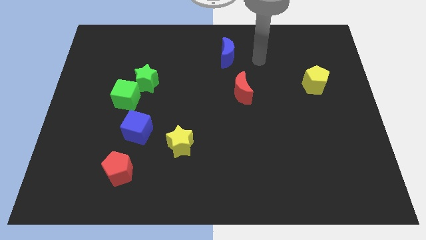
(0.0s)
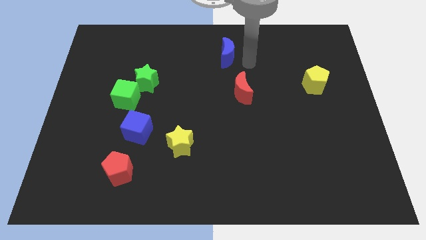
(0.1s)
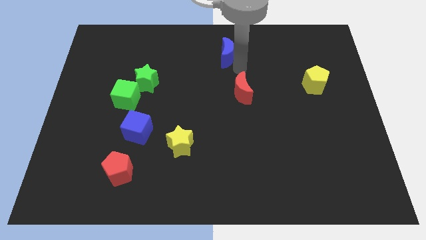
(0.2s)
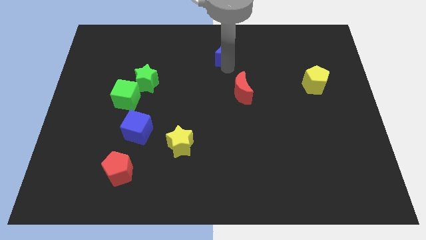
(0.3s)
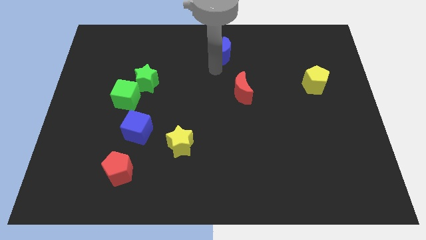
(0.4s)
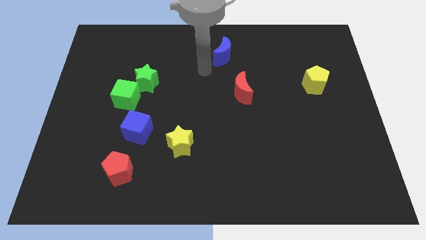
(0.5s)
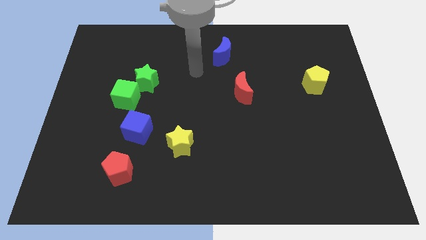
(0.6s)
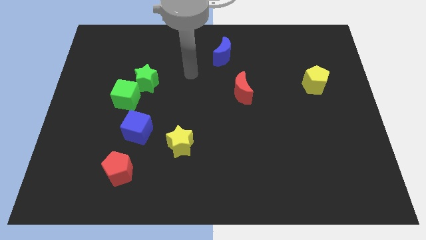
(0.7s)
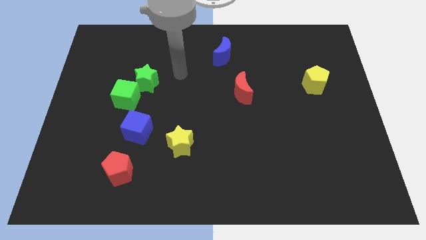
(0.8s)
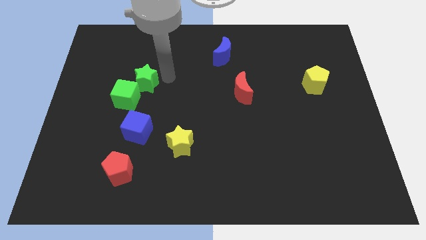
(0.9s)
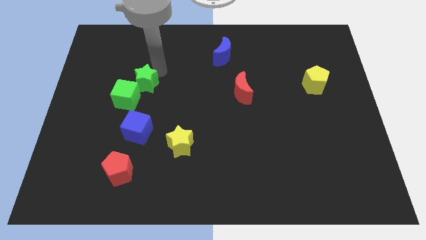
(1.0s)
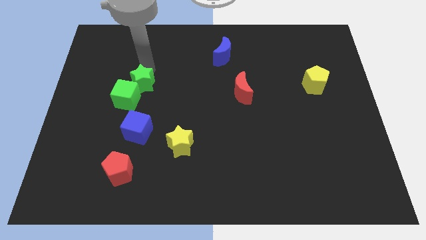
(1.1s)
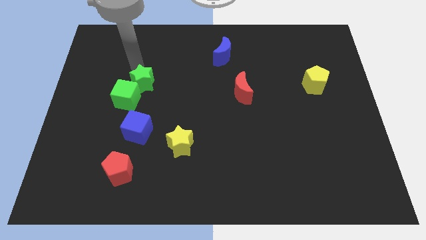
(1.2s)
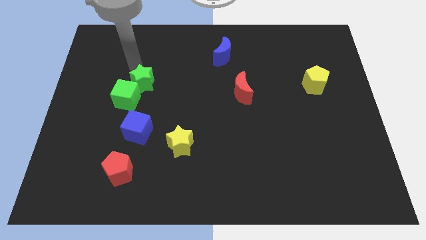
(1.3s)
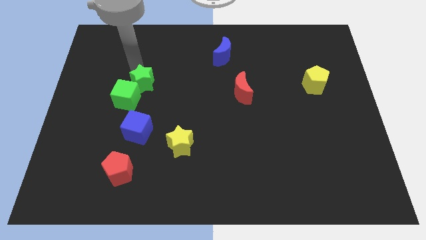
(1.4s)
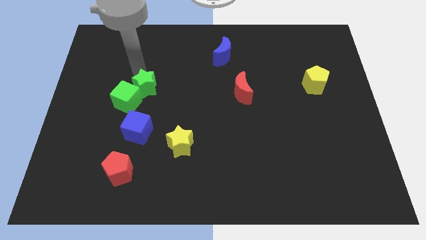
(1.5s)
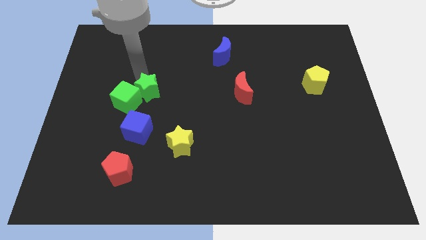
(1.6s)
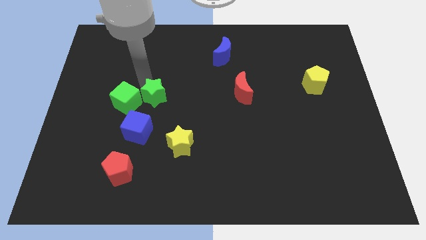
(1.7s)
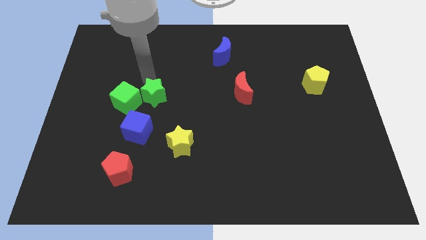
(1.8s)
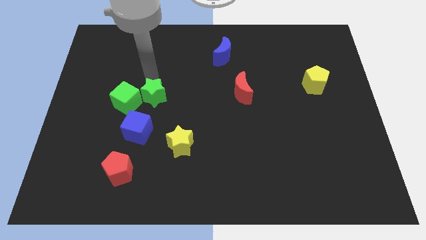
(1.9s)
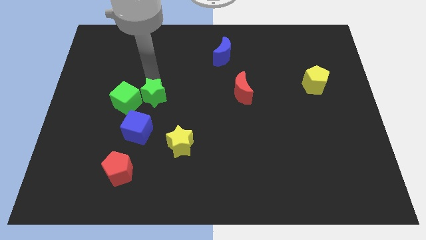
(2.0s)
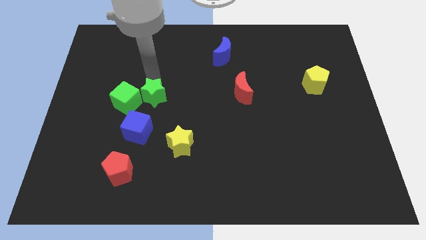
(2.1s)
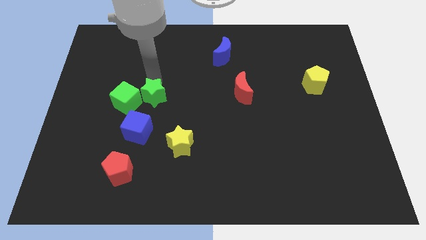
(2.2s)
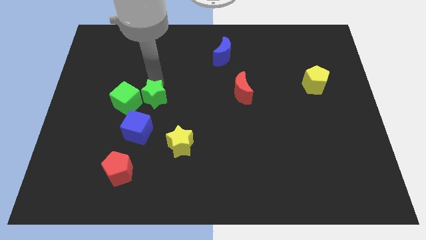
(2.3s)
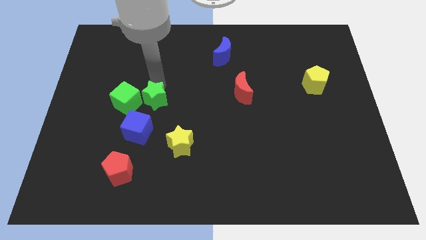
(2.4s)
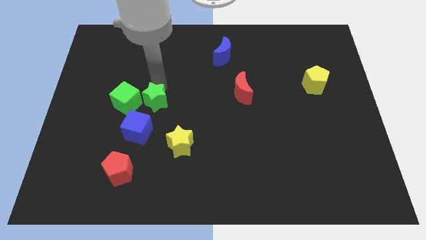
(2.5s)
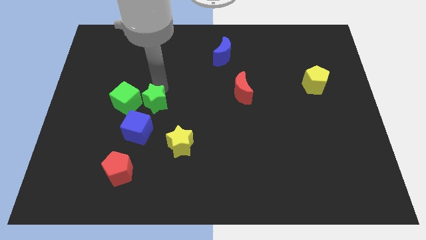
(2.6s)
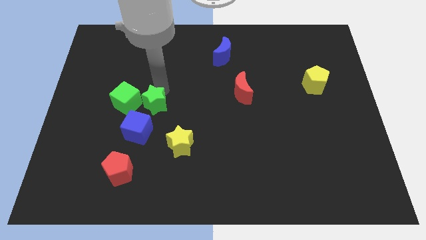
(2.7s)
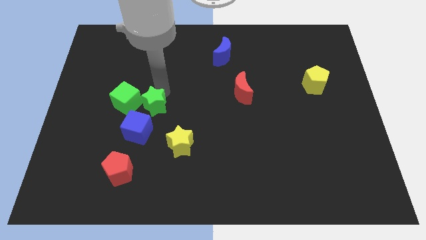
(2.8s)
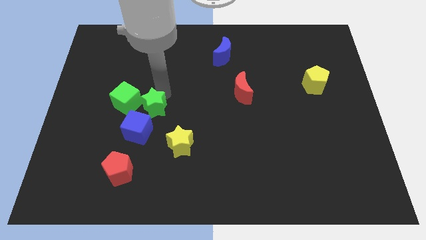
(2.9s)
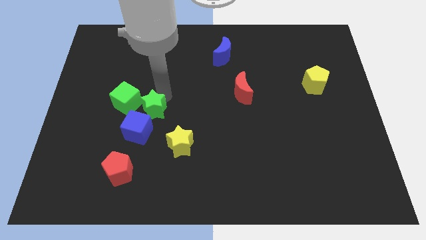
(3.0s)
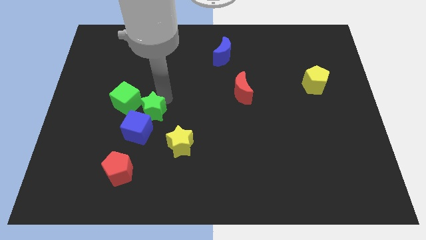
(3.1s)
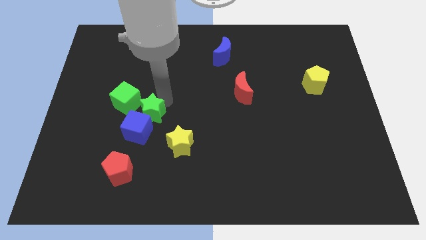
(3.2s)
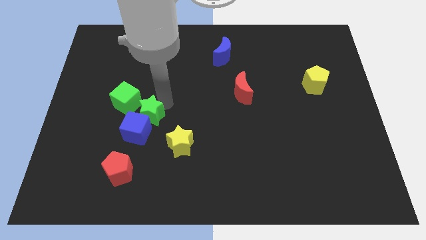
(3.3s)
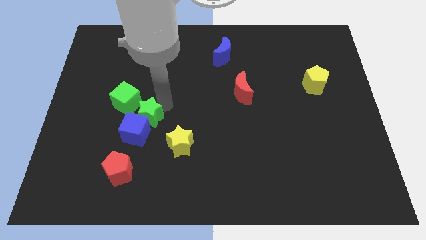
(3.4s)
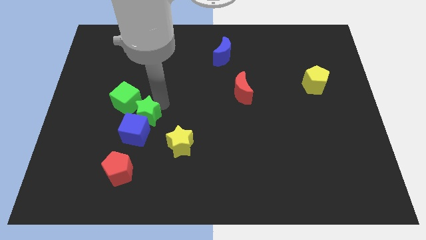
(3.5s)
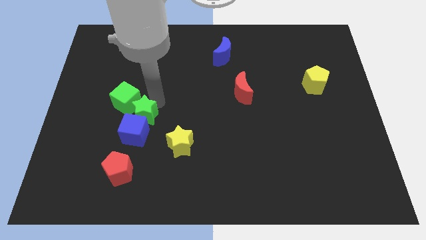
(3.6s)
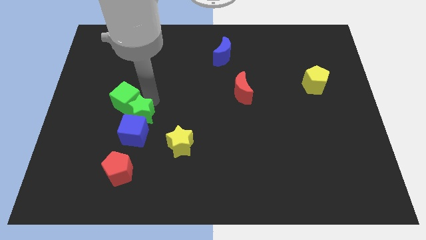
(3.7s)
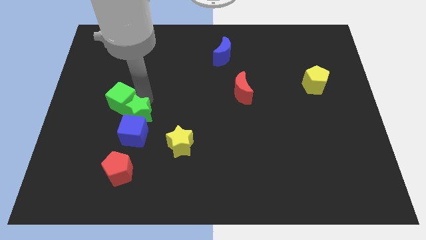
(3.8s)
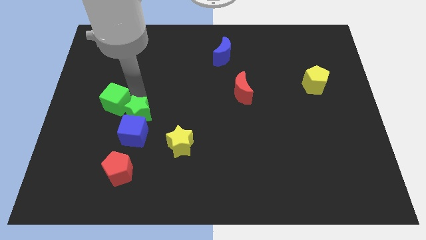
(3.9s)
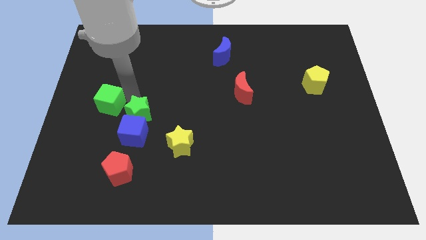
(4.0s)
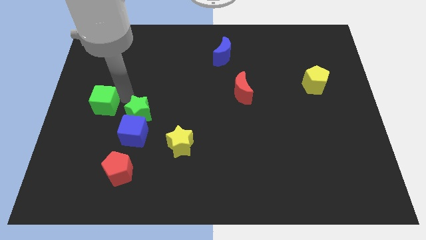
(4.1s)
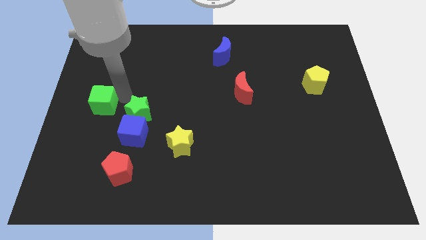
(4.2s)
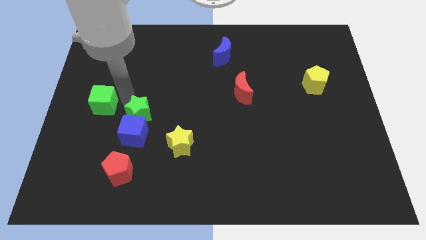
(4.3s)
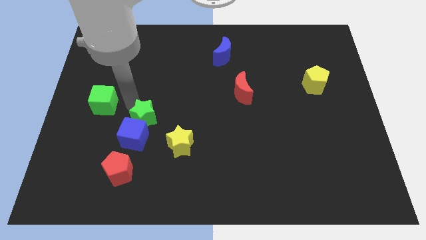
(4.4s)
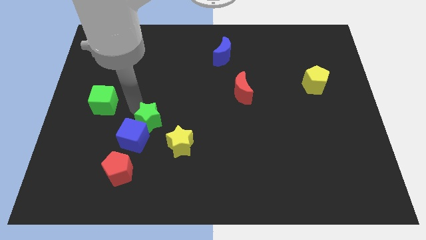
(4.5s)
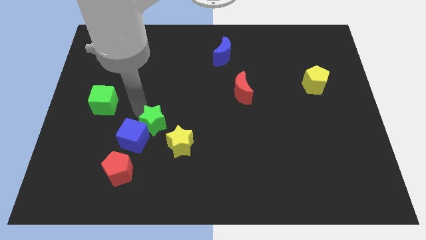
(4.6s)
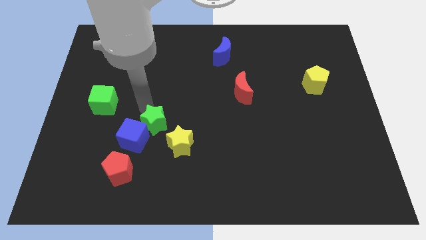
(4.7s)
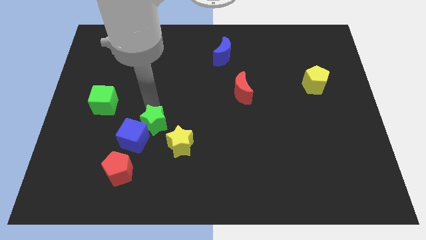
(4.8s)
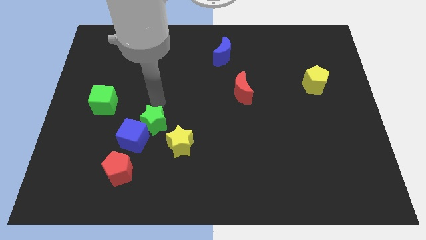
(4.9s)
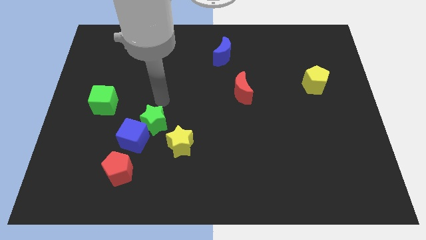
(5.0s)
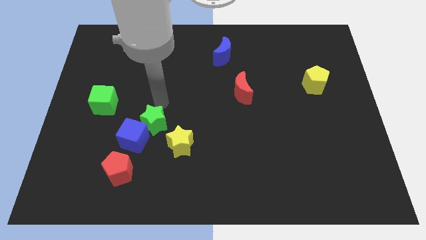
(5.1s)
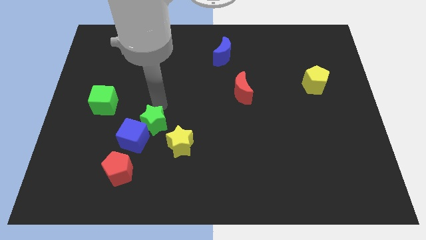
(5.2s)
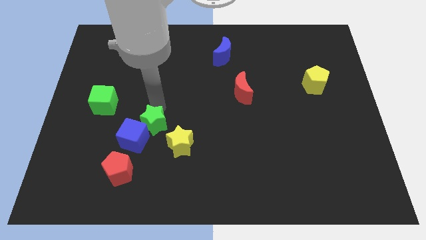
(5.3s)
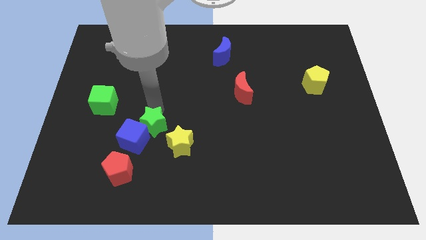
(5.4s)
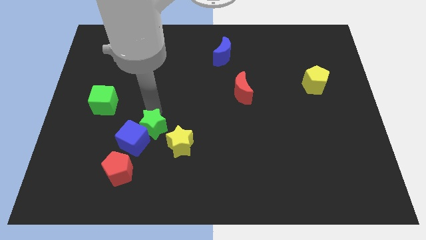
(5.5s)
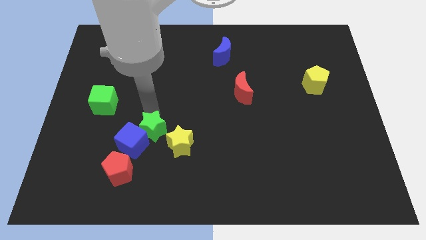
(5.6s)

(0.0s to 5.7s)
push the green star to the top right side of the red pentagon

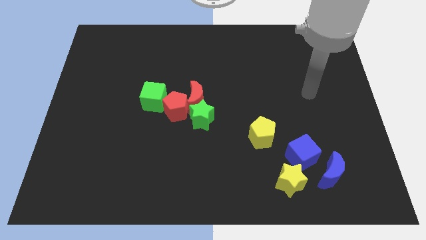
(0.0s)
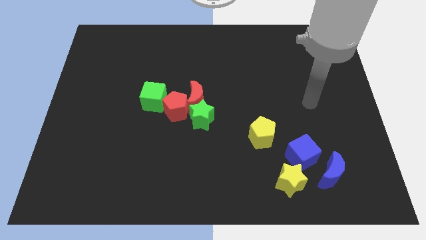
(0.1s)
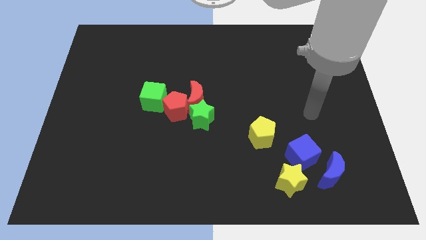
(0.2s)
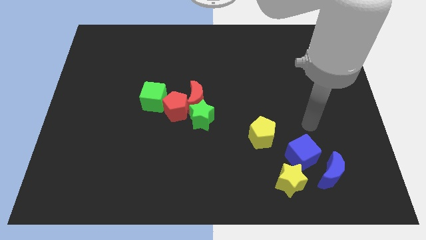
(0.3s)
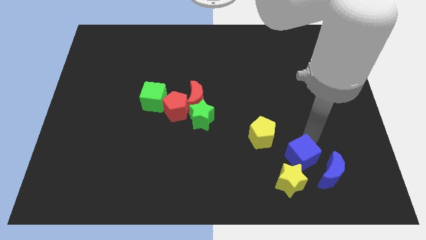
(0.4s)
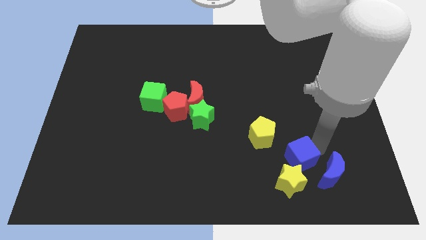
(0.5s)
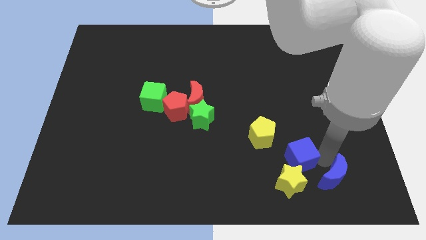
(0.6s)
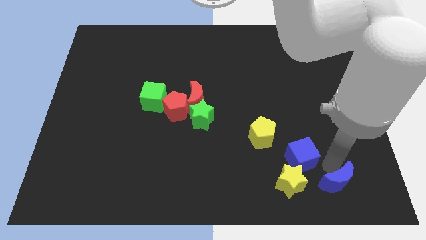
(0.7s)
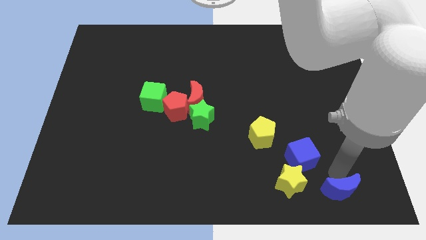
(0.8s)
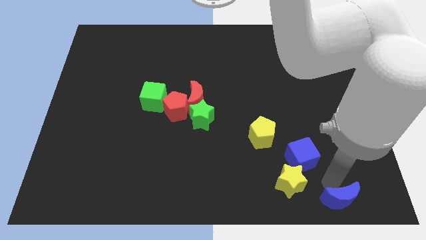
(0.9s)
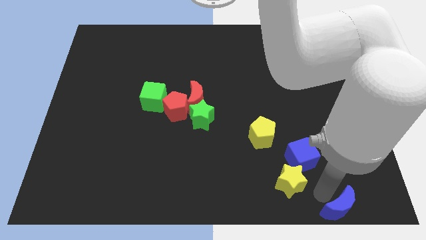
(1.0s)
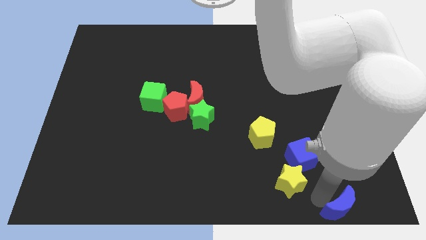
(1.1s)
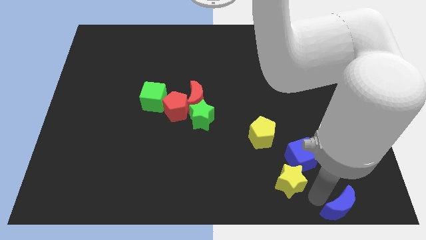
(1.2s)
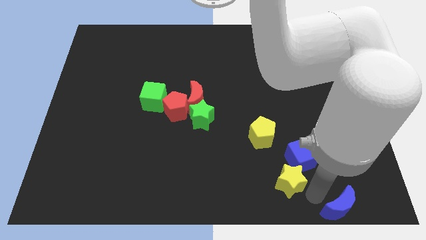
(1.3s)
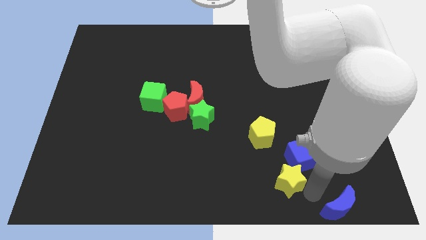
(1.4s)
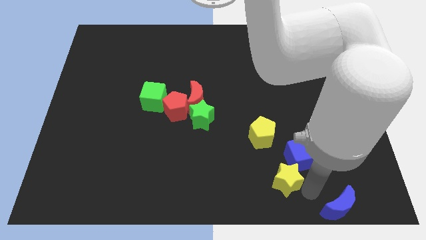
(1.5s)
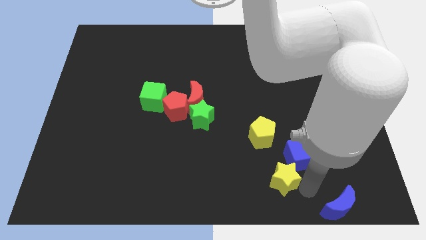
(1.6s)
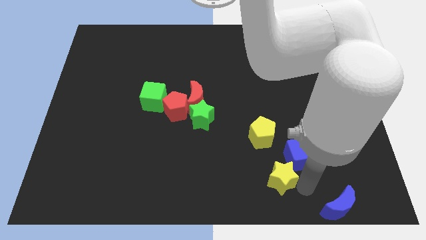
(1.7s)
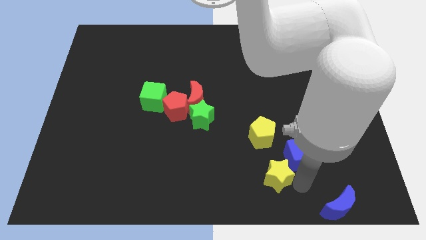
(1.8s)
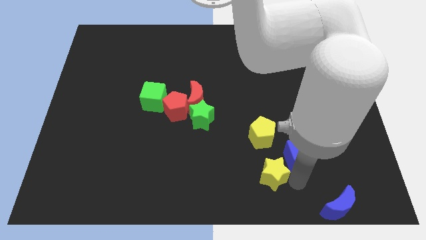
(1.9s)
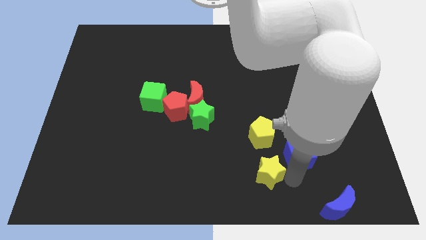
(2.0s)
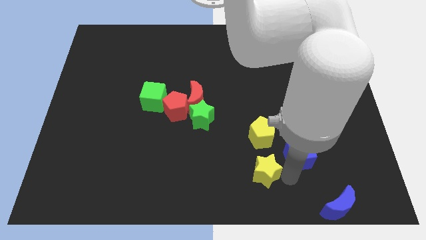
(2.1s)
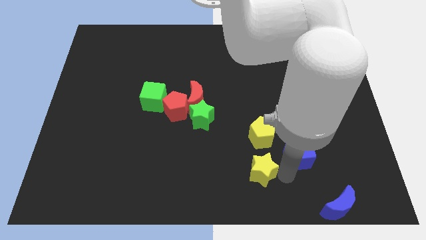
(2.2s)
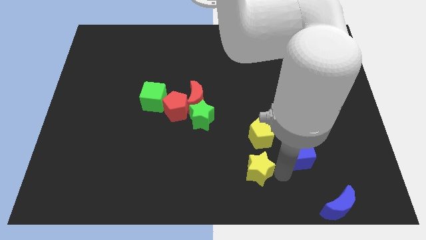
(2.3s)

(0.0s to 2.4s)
push the yellow star to the bottom left of the yellow pentagon

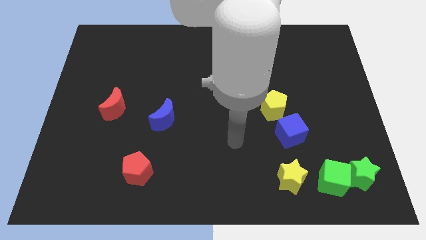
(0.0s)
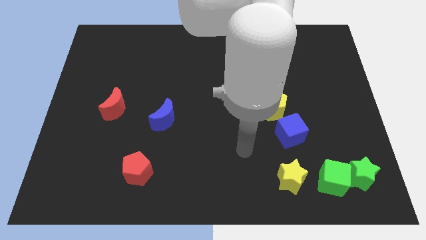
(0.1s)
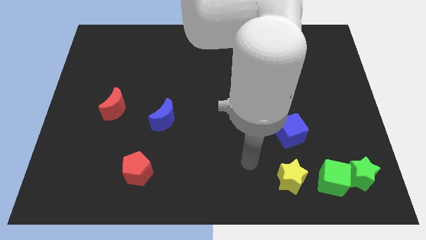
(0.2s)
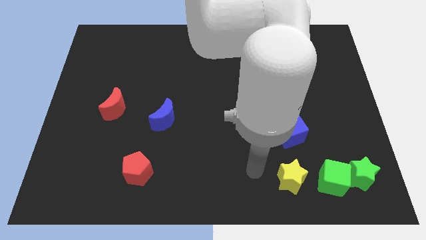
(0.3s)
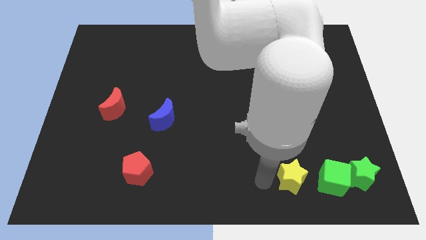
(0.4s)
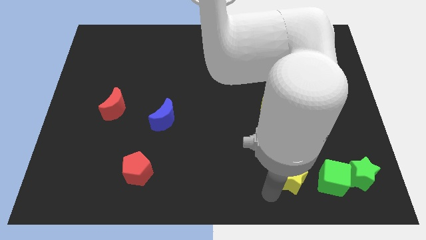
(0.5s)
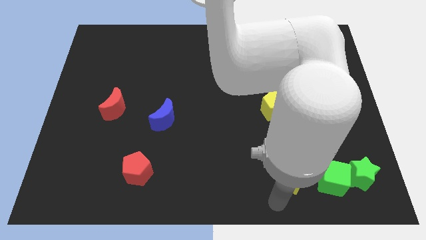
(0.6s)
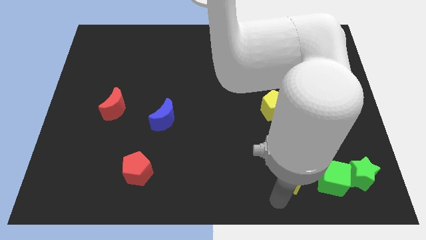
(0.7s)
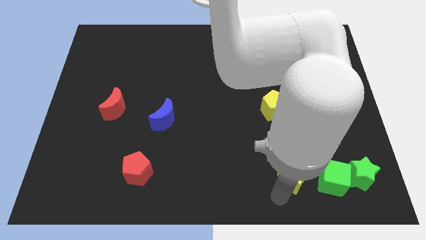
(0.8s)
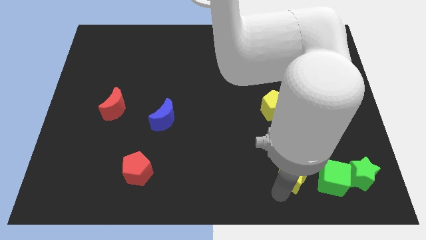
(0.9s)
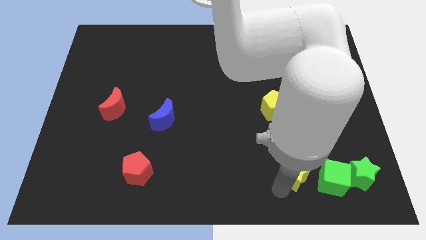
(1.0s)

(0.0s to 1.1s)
put the yellow star diagonally up and to the left of the green cube
